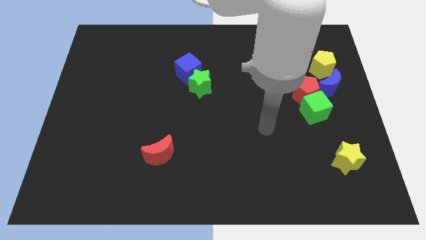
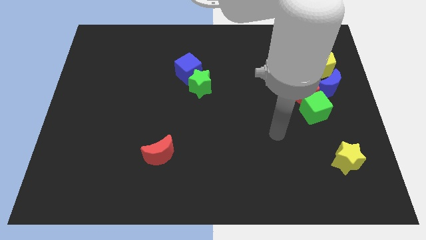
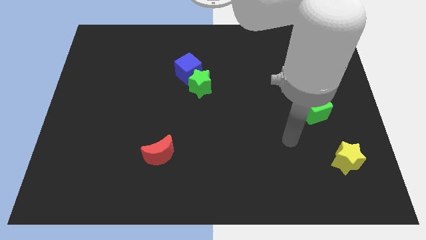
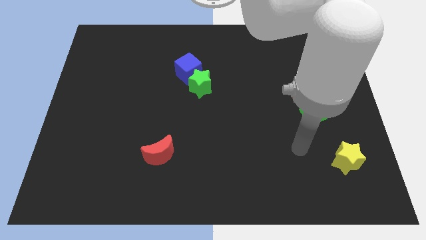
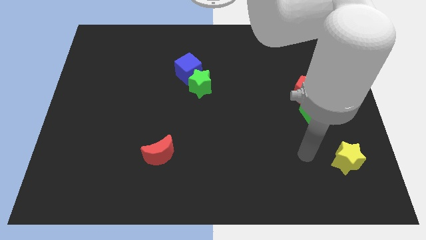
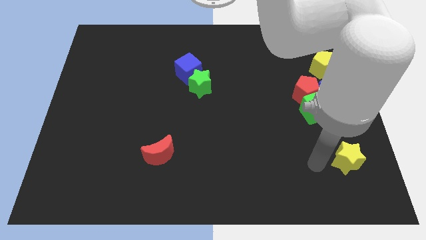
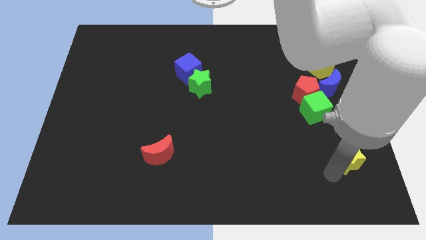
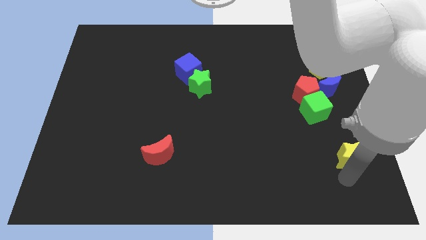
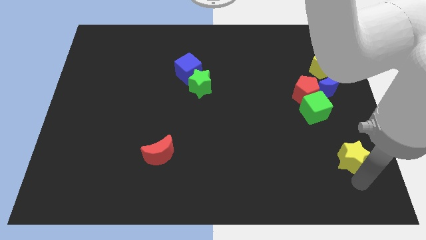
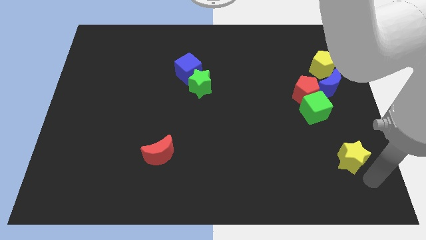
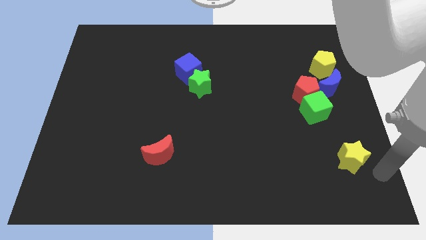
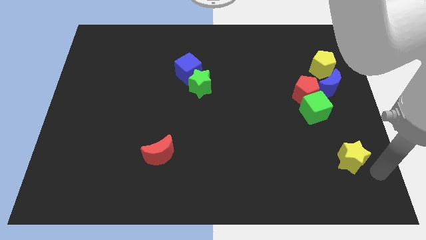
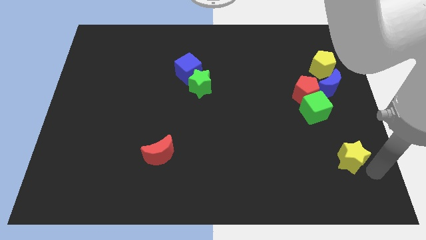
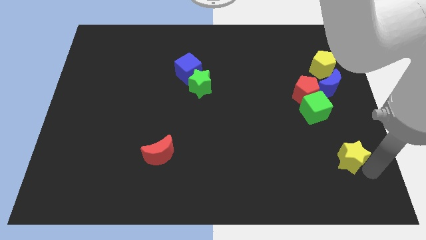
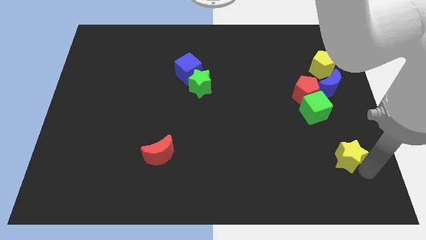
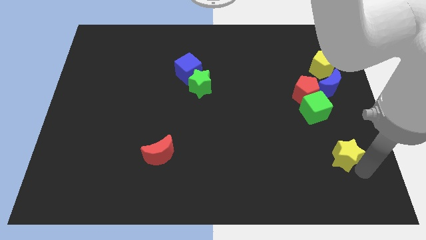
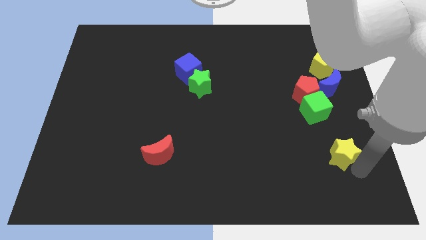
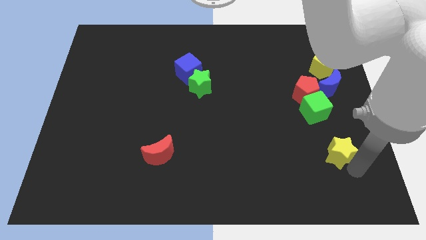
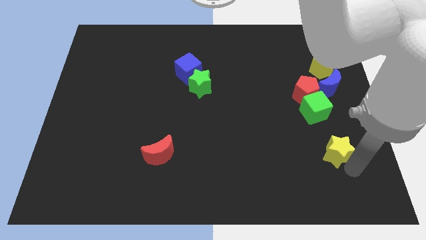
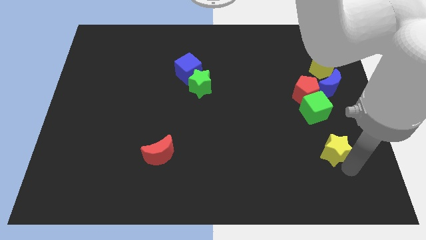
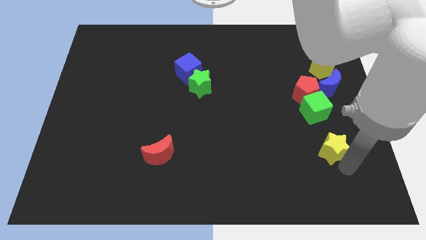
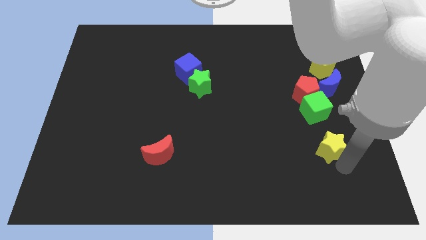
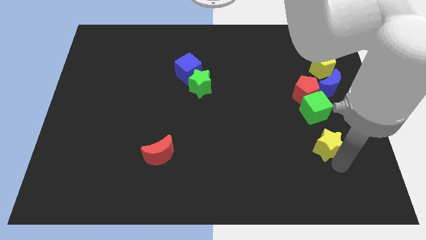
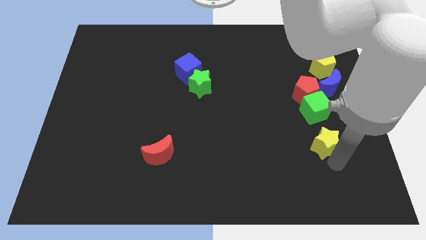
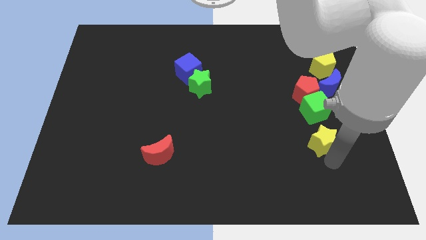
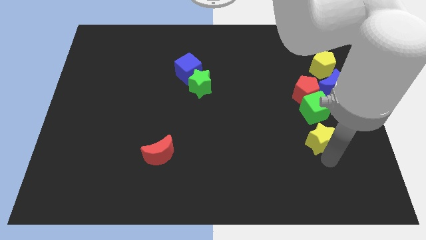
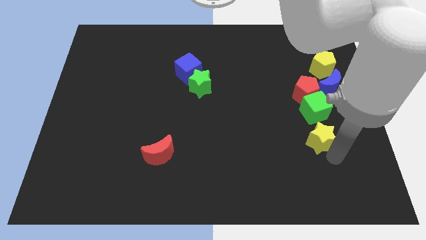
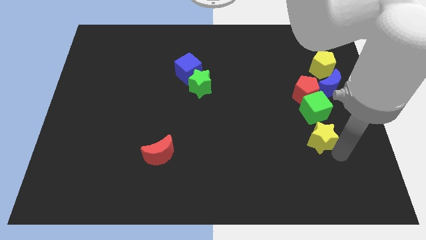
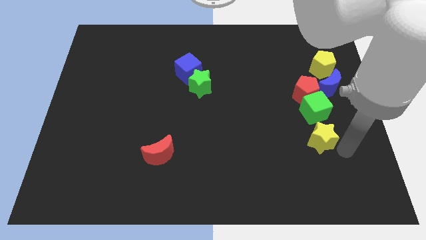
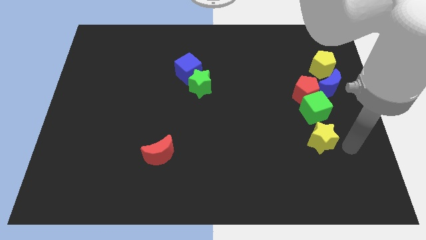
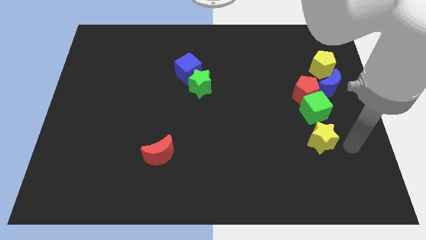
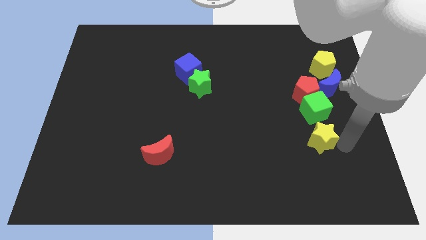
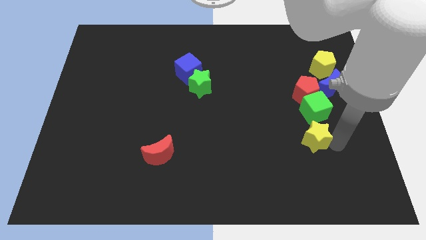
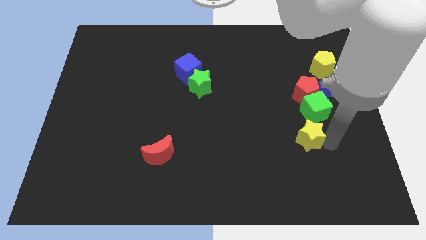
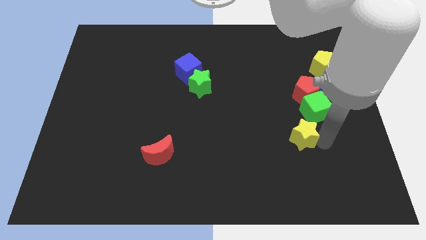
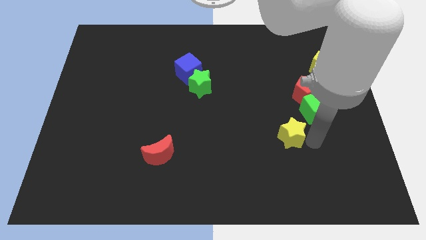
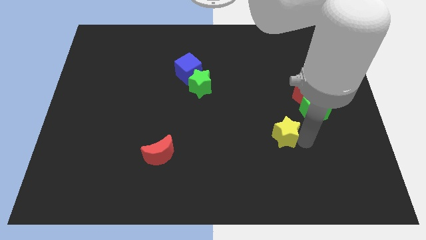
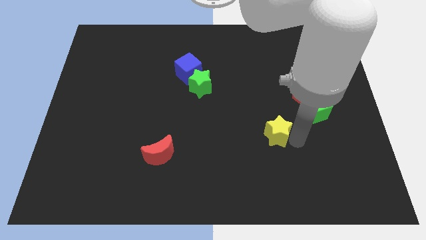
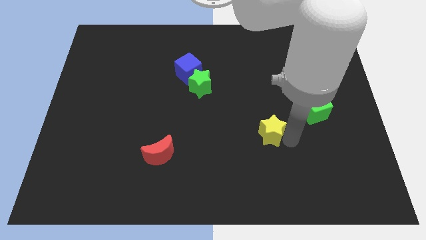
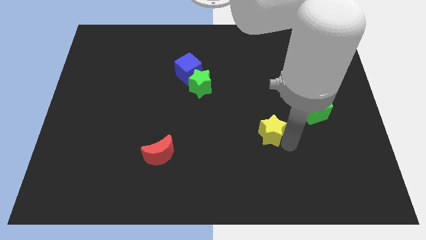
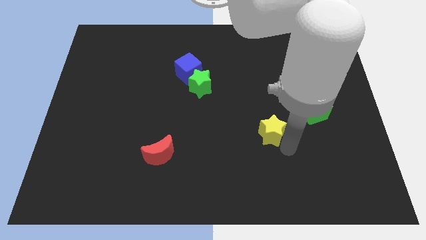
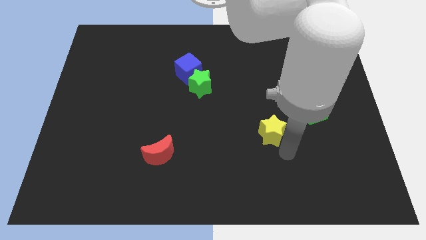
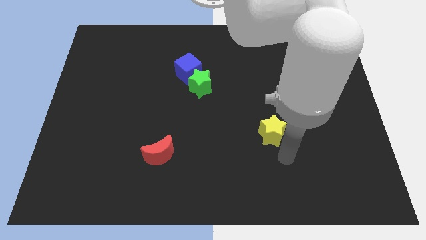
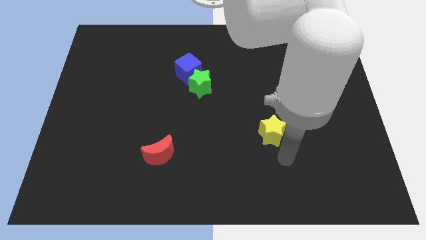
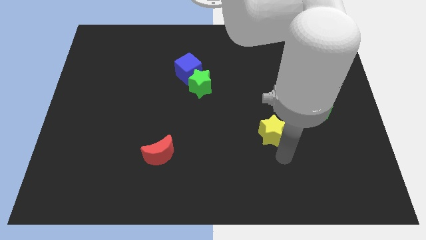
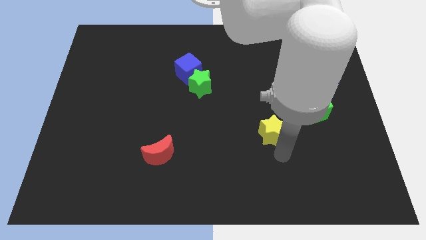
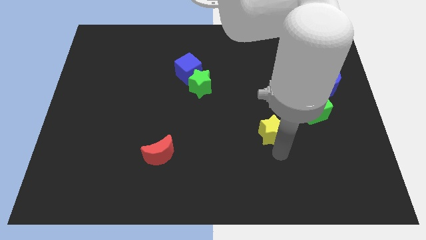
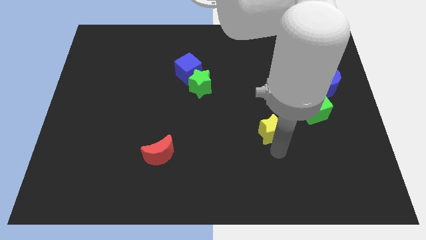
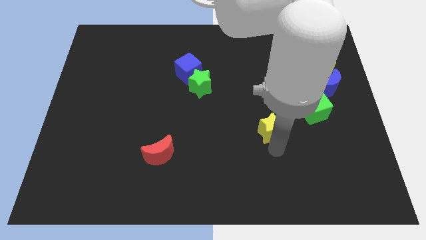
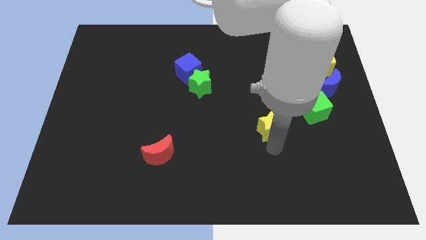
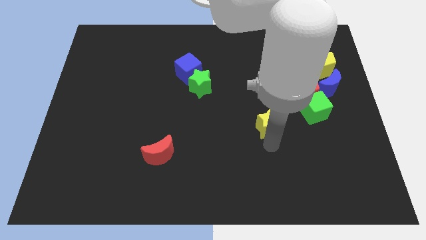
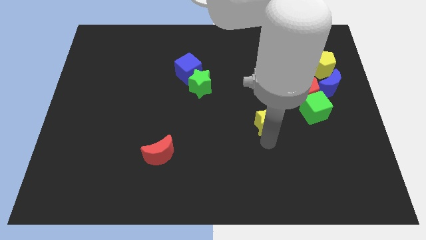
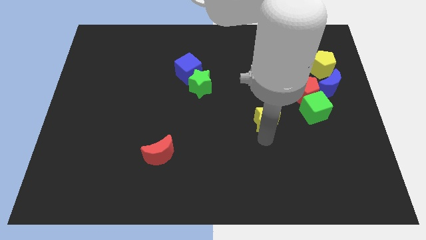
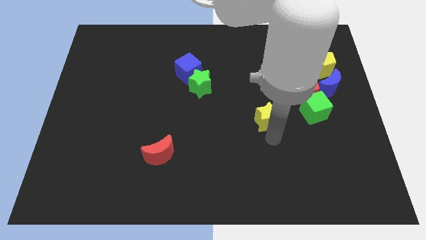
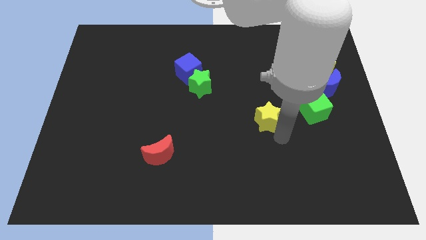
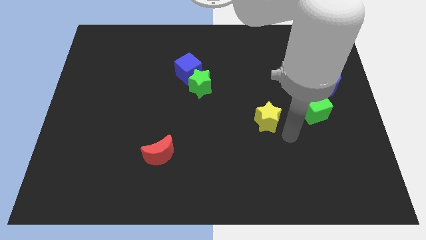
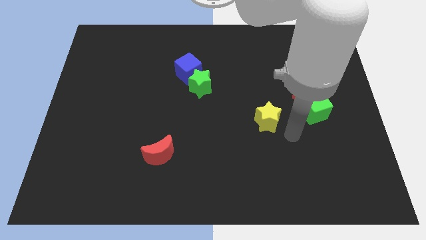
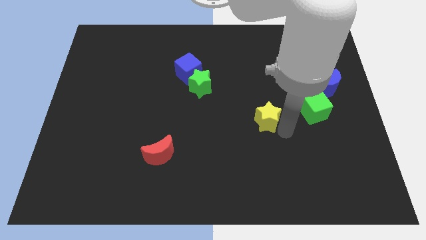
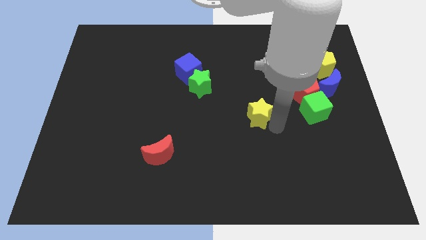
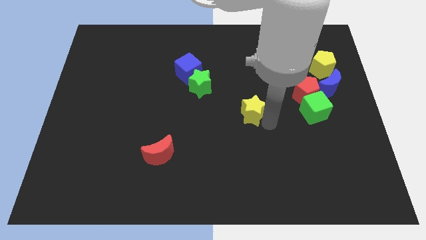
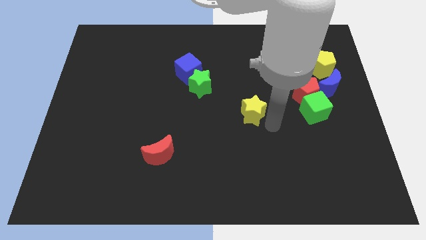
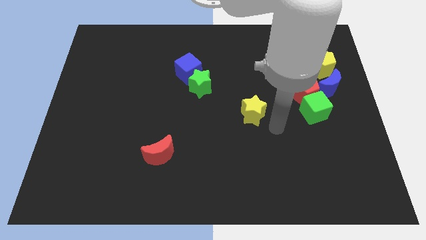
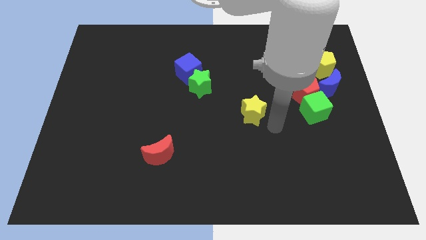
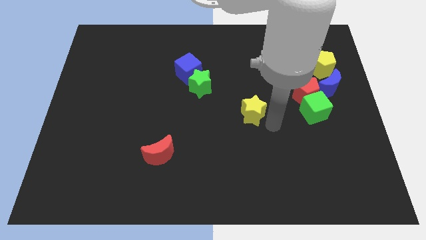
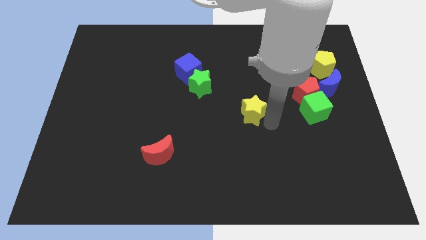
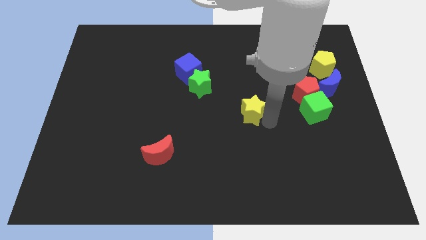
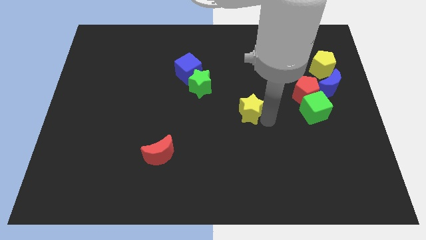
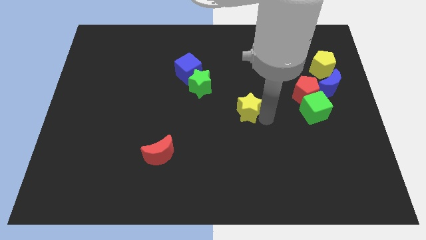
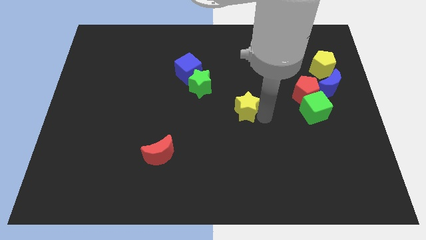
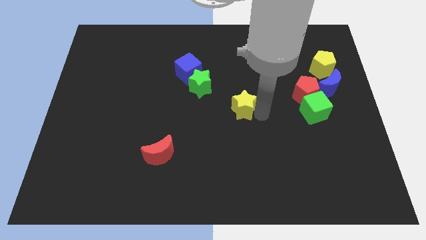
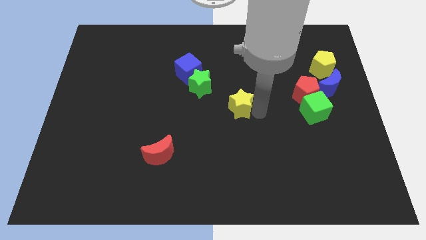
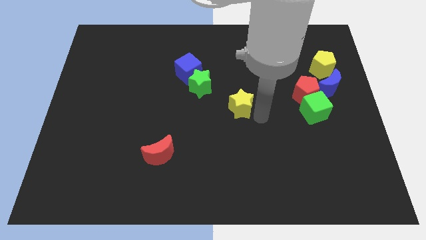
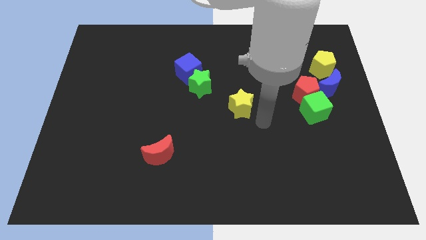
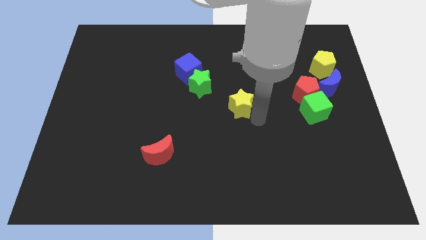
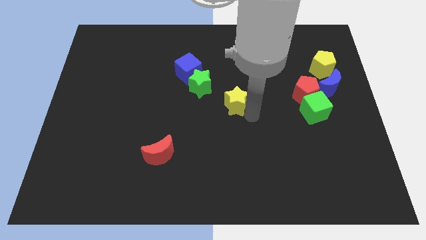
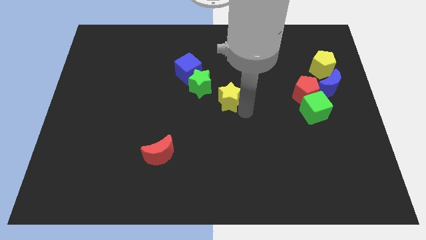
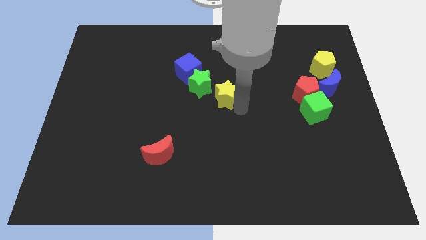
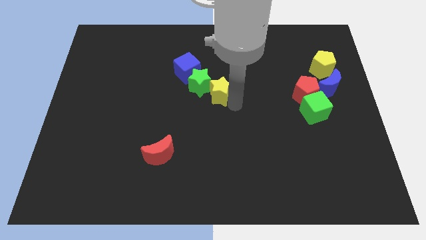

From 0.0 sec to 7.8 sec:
slide the yellow star close to the green star
